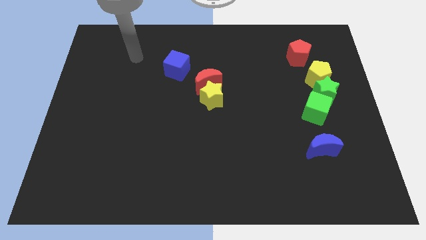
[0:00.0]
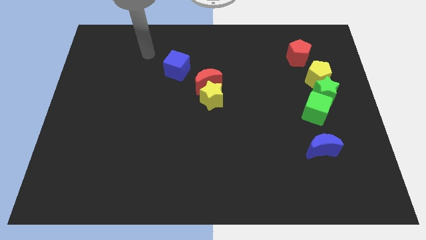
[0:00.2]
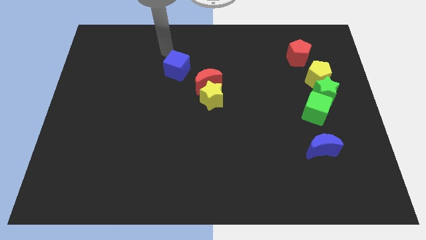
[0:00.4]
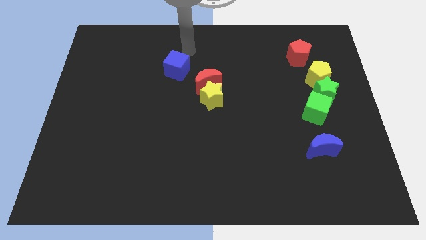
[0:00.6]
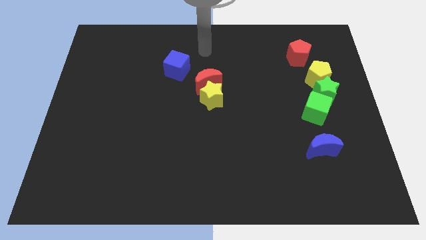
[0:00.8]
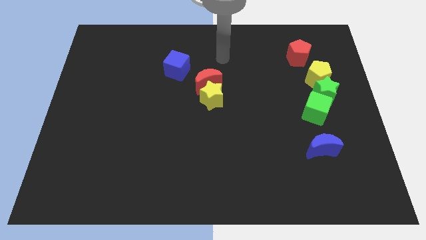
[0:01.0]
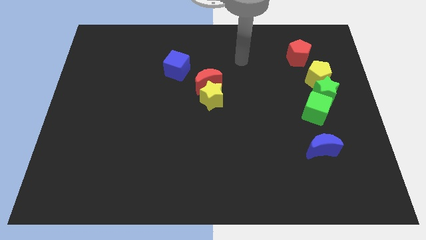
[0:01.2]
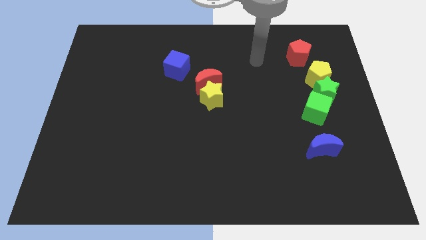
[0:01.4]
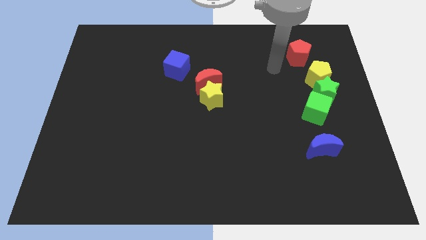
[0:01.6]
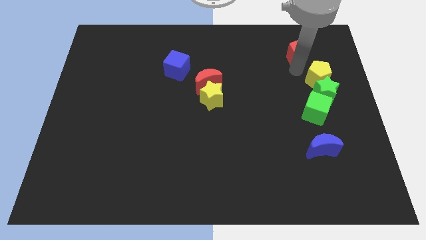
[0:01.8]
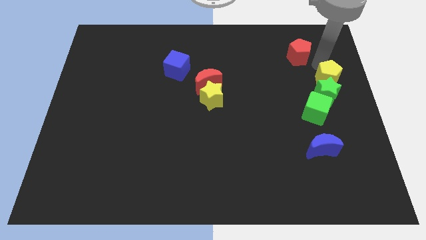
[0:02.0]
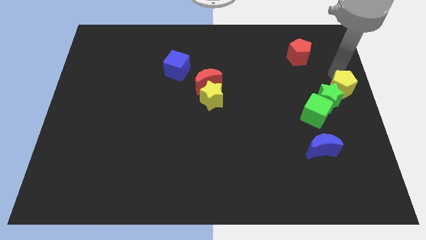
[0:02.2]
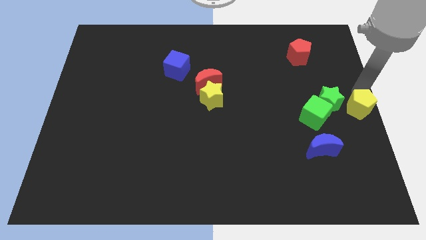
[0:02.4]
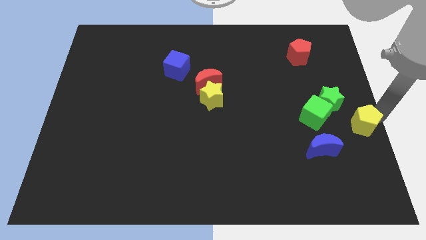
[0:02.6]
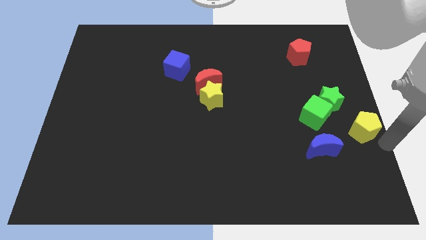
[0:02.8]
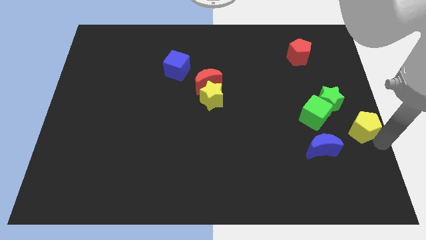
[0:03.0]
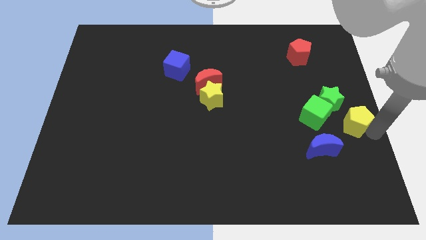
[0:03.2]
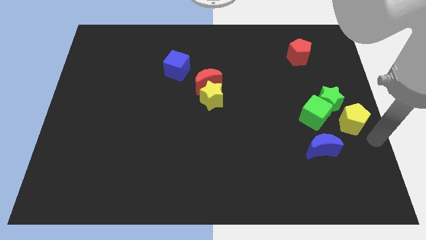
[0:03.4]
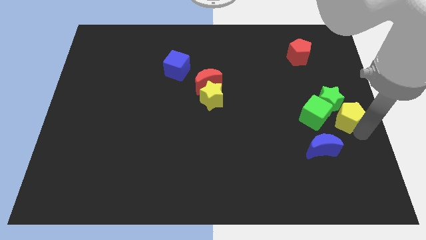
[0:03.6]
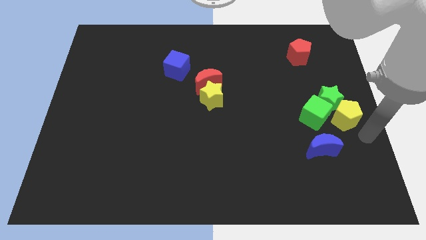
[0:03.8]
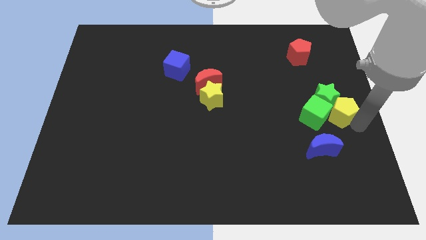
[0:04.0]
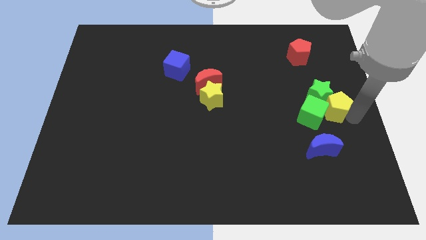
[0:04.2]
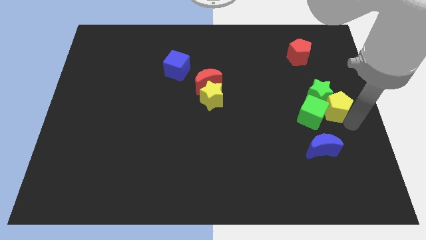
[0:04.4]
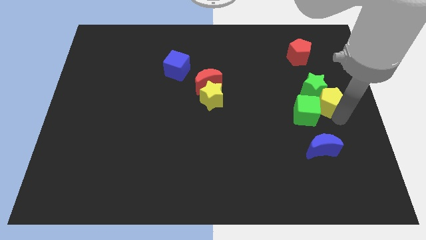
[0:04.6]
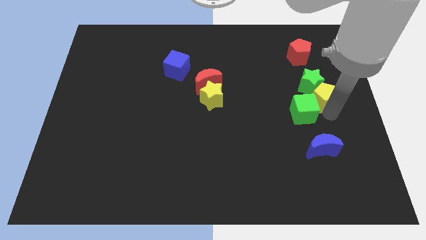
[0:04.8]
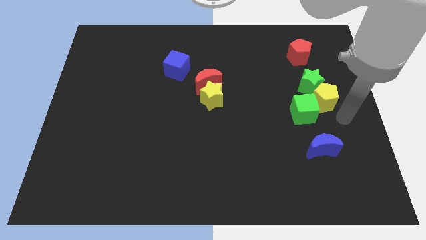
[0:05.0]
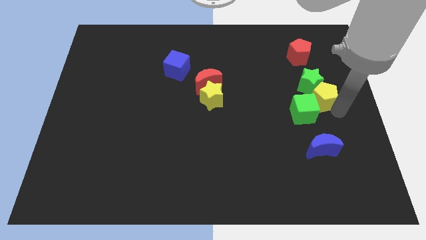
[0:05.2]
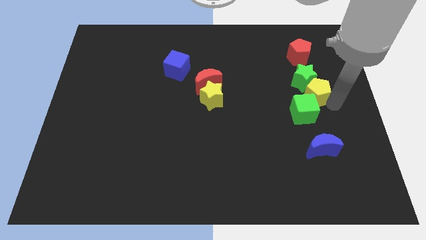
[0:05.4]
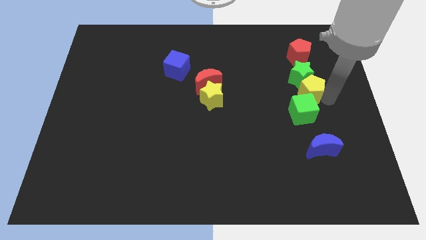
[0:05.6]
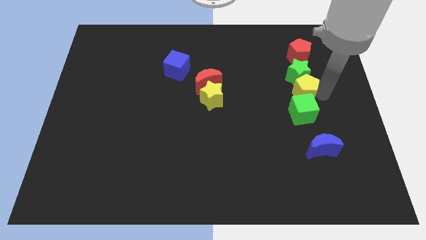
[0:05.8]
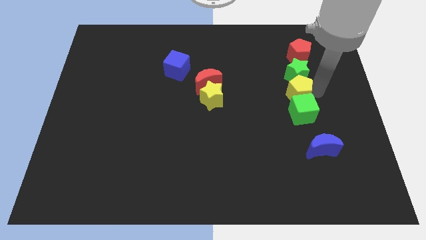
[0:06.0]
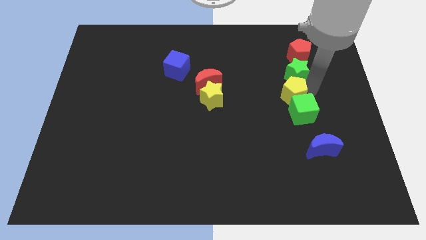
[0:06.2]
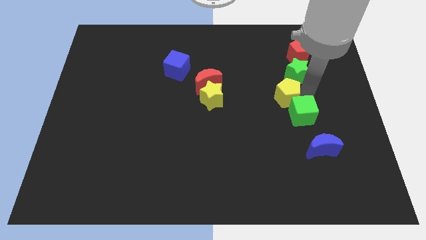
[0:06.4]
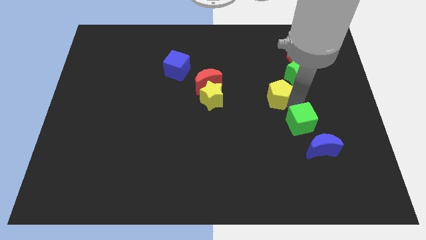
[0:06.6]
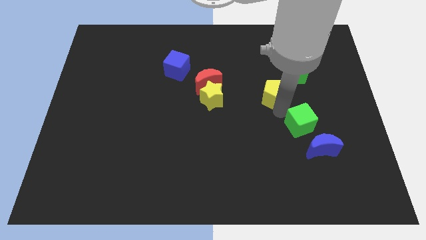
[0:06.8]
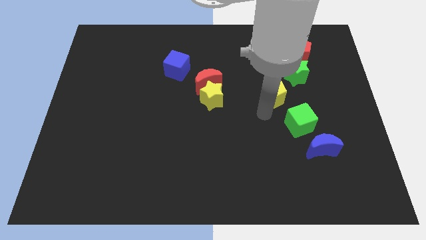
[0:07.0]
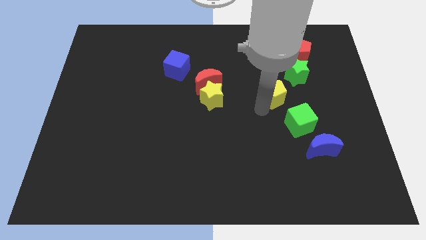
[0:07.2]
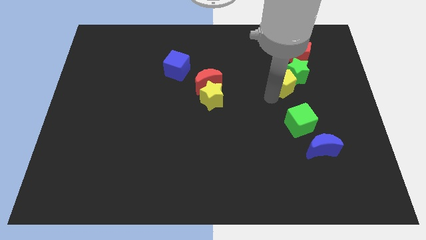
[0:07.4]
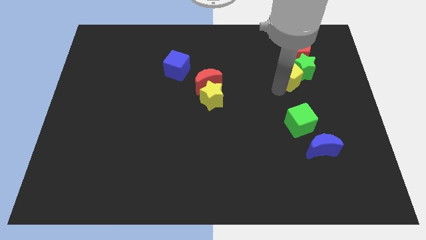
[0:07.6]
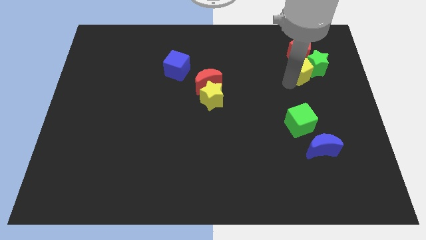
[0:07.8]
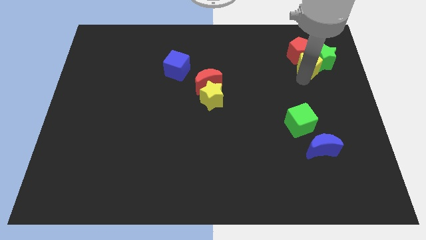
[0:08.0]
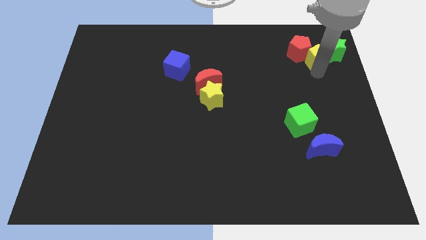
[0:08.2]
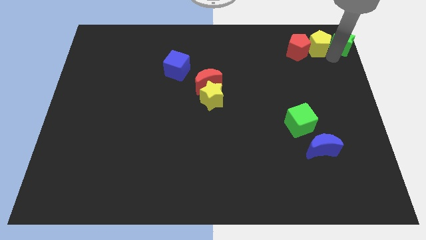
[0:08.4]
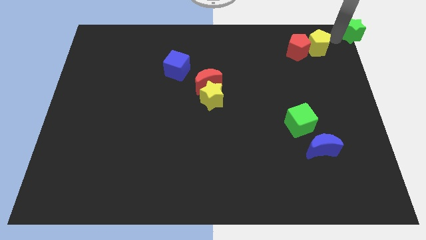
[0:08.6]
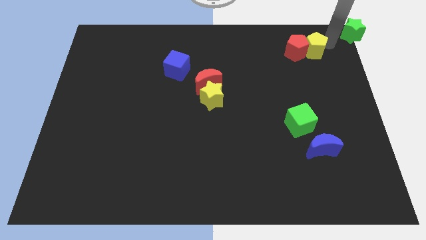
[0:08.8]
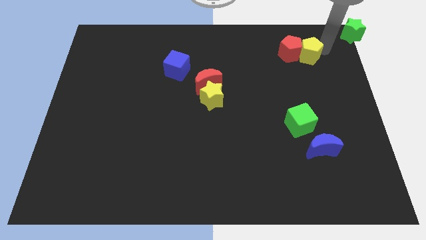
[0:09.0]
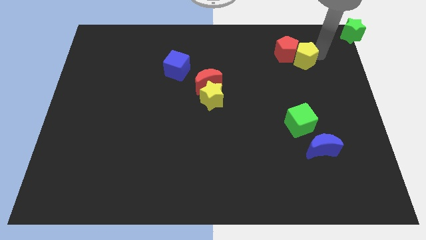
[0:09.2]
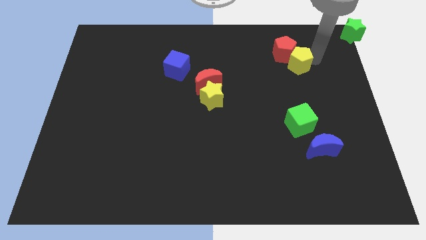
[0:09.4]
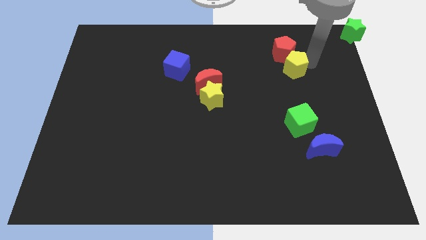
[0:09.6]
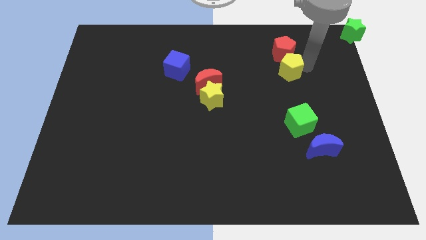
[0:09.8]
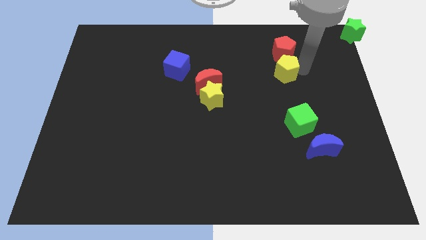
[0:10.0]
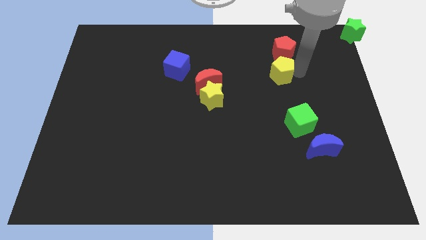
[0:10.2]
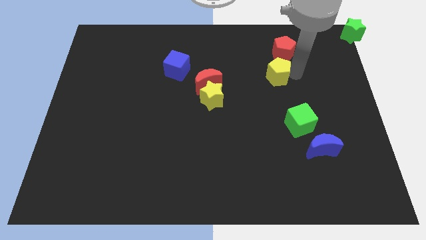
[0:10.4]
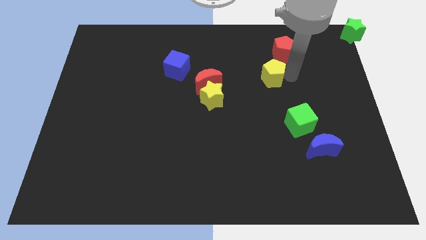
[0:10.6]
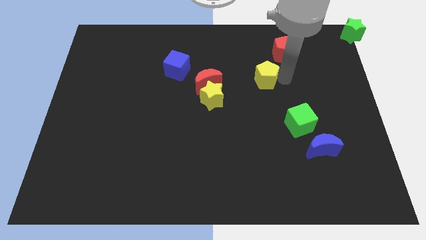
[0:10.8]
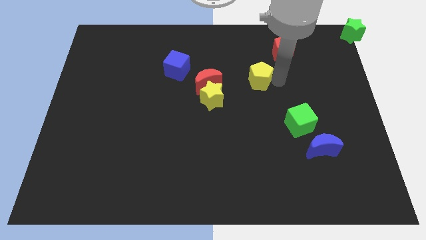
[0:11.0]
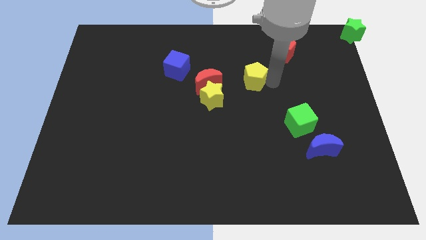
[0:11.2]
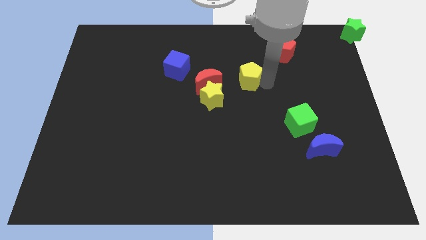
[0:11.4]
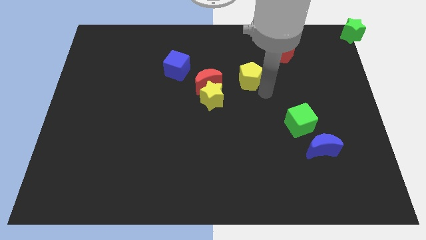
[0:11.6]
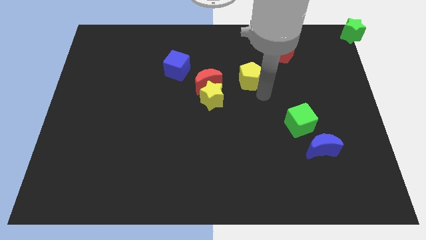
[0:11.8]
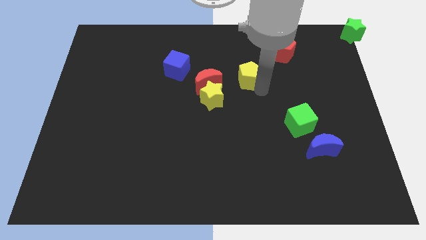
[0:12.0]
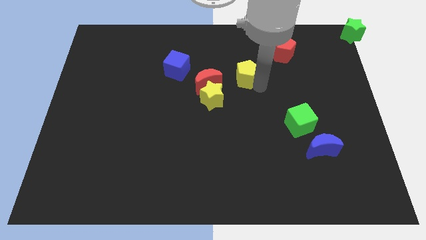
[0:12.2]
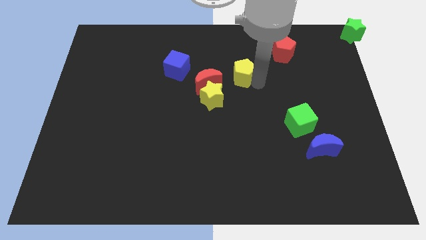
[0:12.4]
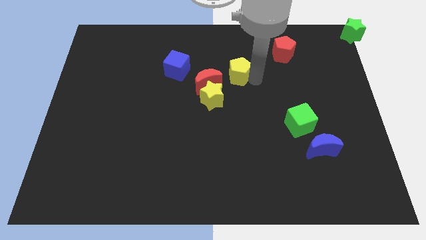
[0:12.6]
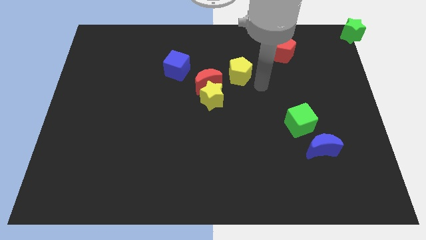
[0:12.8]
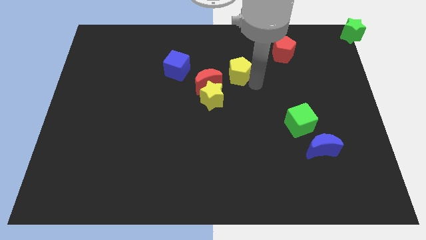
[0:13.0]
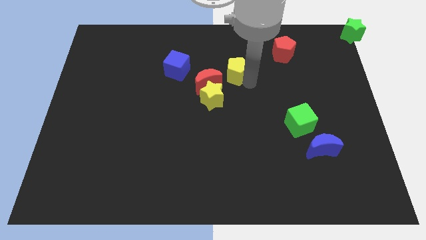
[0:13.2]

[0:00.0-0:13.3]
push the yellow pentagon to the left

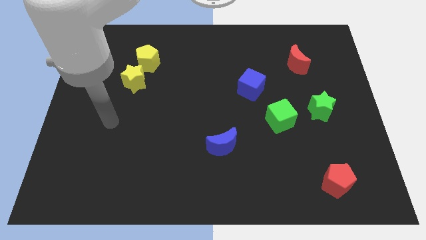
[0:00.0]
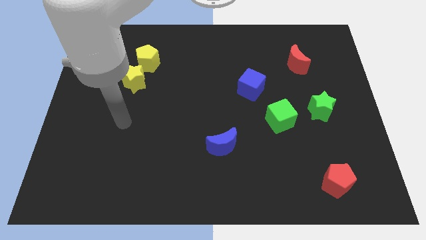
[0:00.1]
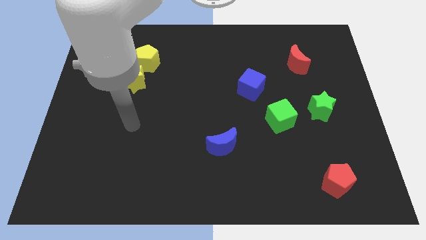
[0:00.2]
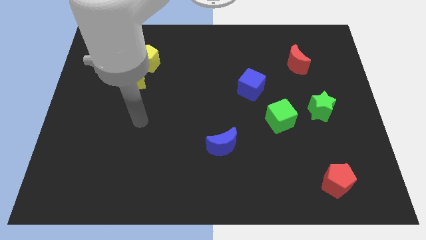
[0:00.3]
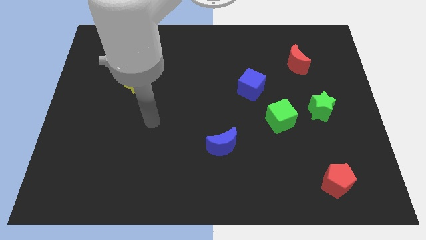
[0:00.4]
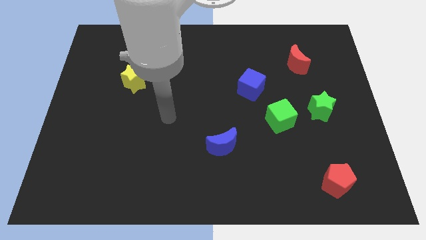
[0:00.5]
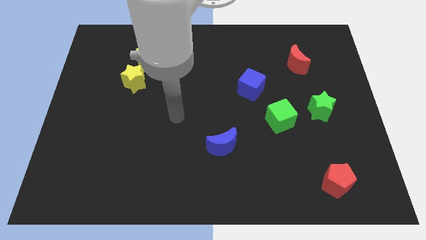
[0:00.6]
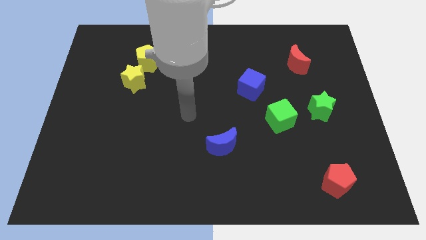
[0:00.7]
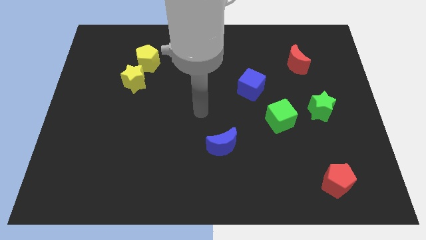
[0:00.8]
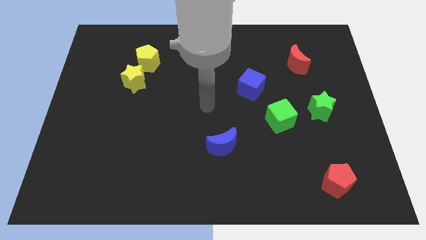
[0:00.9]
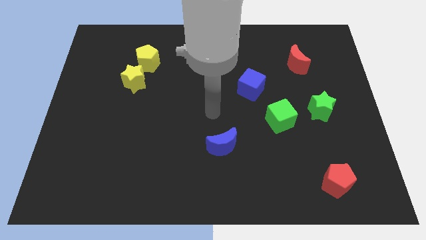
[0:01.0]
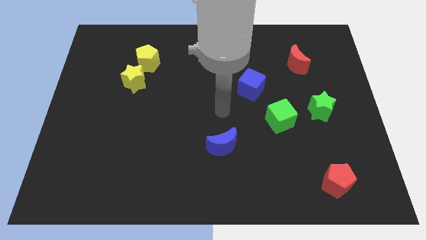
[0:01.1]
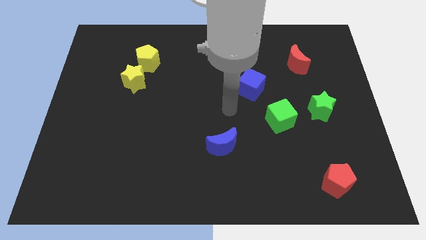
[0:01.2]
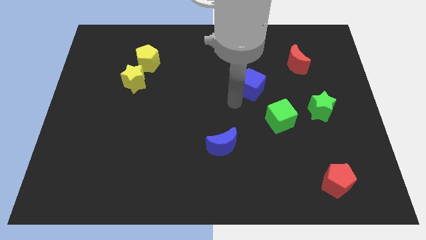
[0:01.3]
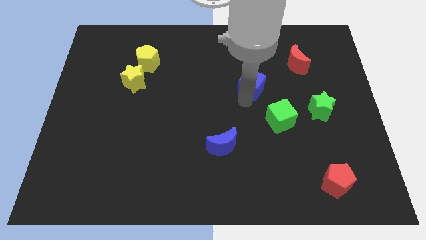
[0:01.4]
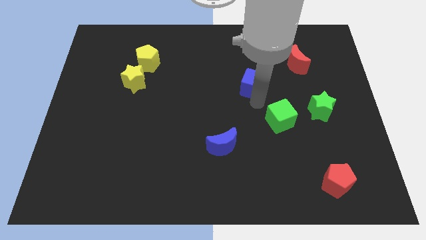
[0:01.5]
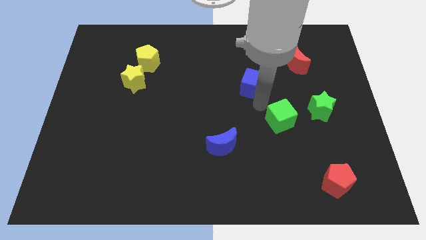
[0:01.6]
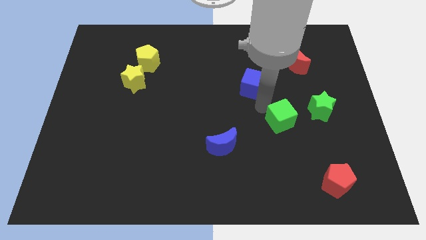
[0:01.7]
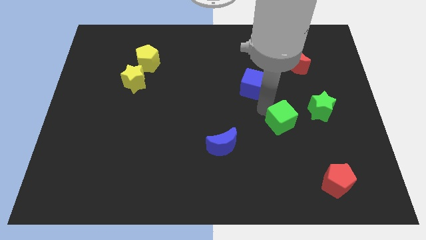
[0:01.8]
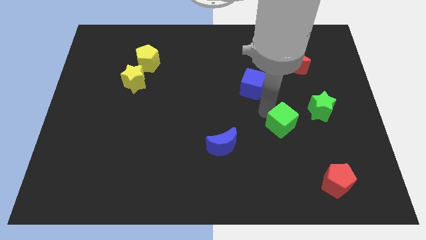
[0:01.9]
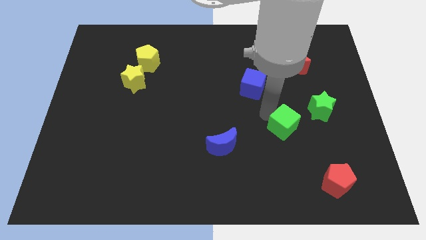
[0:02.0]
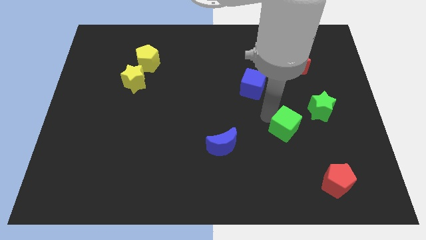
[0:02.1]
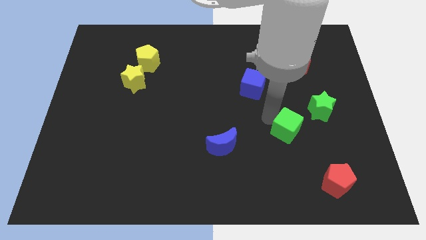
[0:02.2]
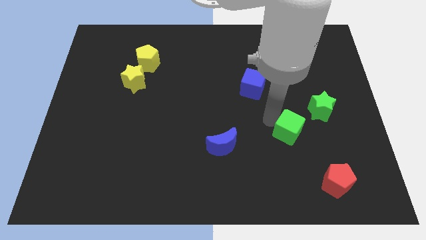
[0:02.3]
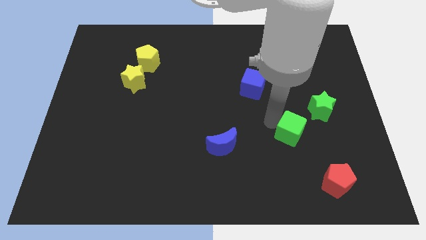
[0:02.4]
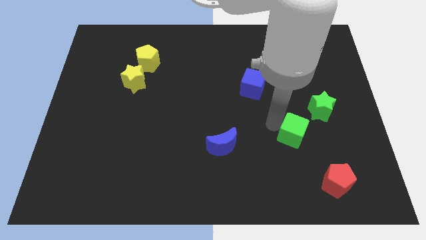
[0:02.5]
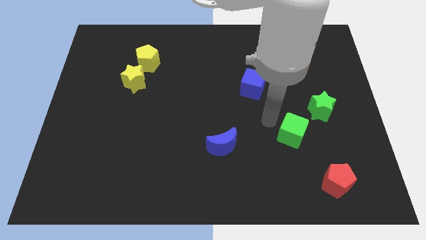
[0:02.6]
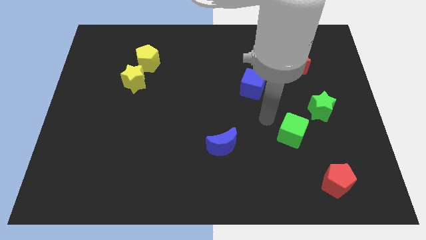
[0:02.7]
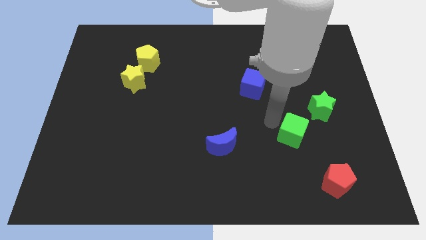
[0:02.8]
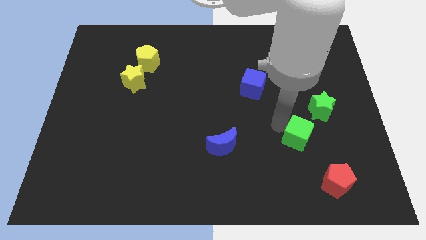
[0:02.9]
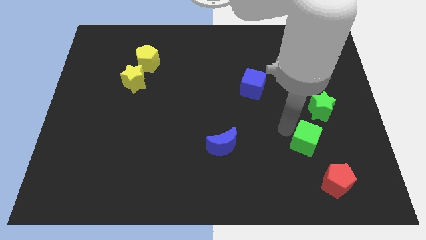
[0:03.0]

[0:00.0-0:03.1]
push the green cube a little bit down and then right
